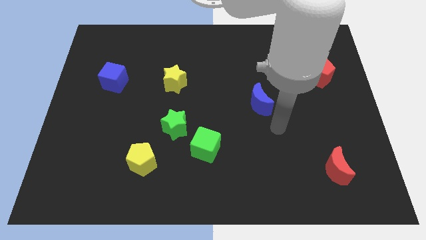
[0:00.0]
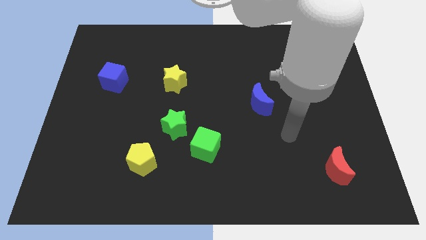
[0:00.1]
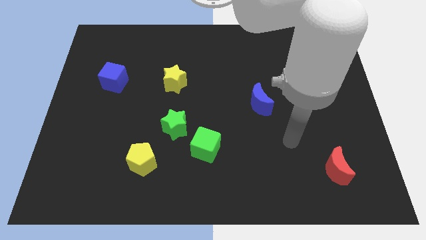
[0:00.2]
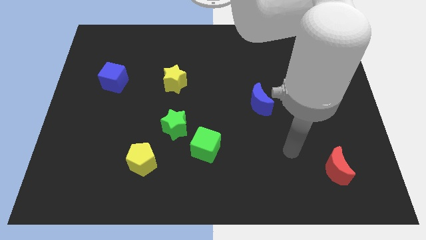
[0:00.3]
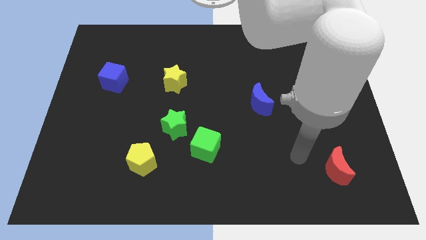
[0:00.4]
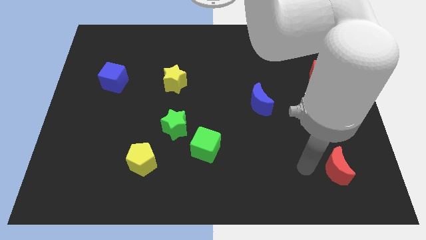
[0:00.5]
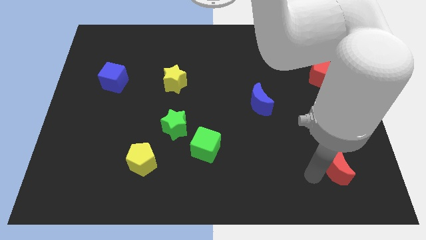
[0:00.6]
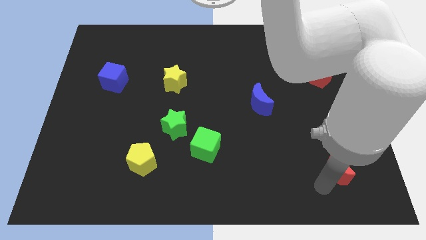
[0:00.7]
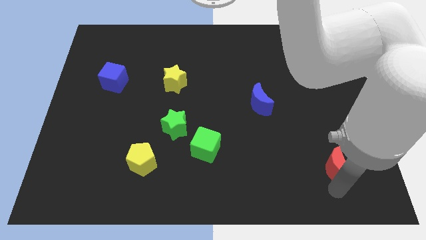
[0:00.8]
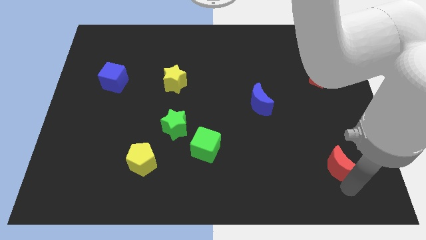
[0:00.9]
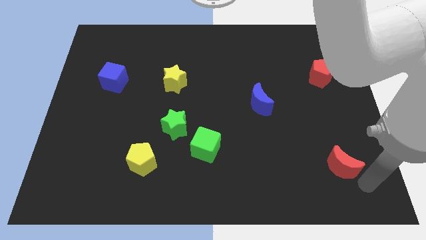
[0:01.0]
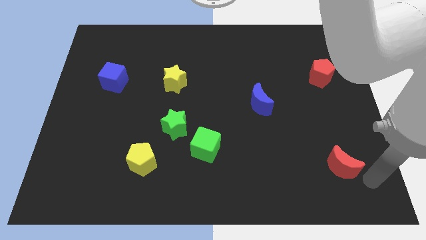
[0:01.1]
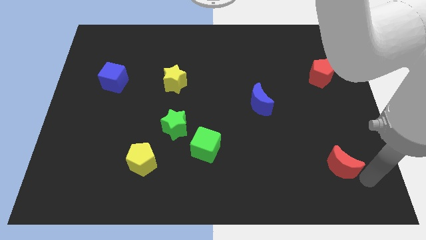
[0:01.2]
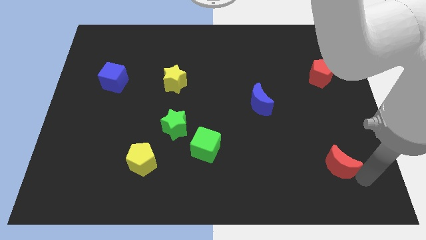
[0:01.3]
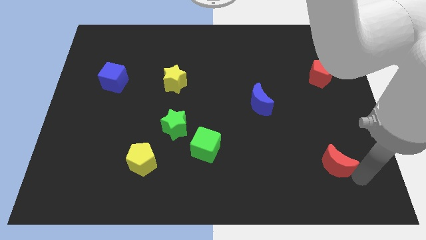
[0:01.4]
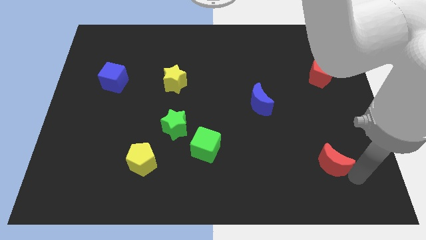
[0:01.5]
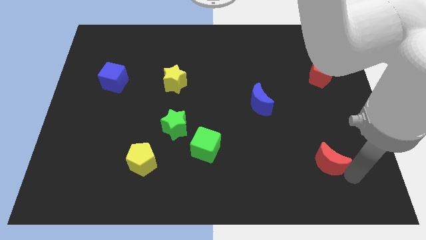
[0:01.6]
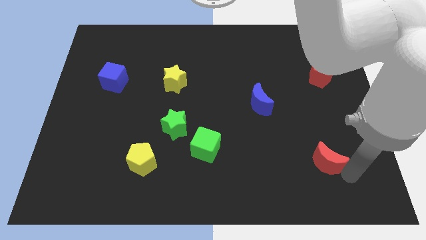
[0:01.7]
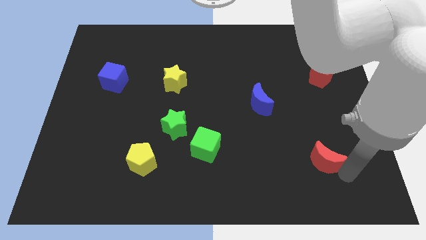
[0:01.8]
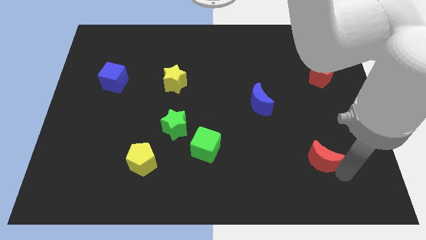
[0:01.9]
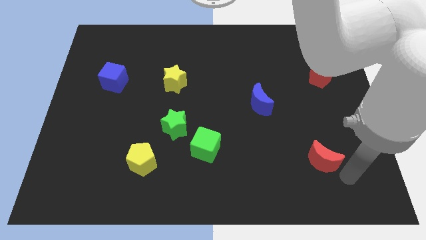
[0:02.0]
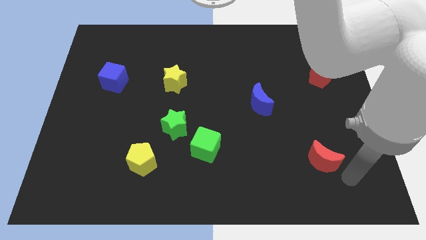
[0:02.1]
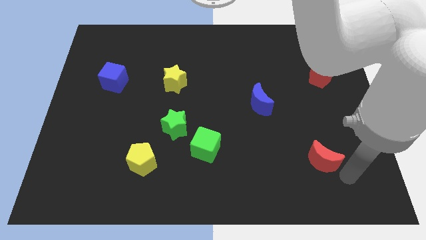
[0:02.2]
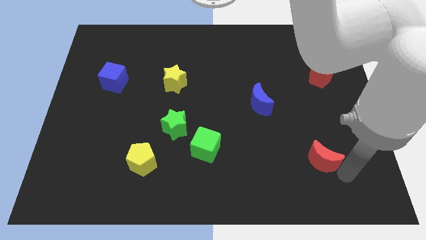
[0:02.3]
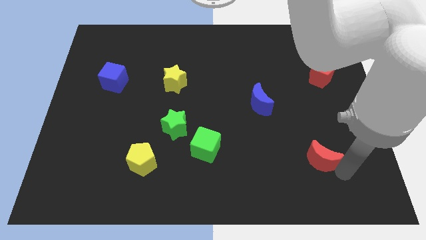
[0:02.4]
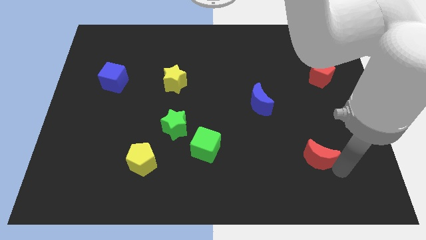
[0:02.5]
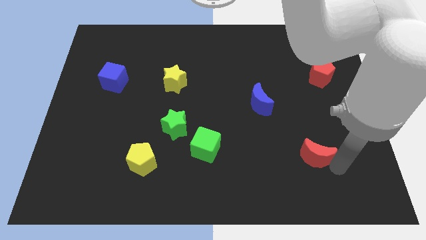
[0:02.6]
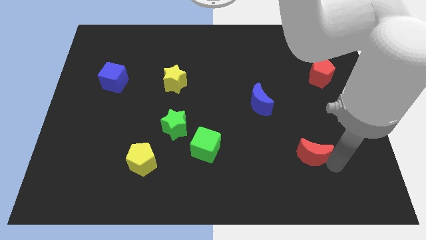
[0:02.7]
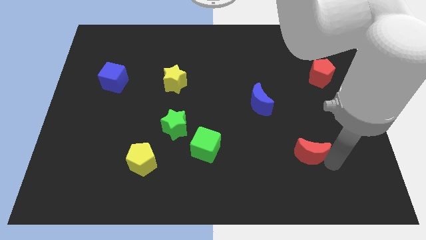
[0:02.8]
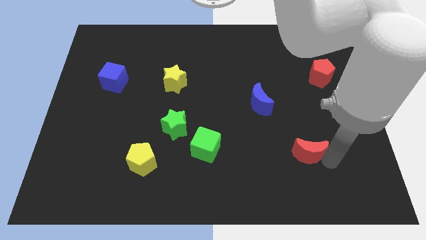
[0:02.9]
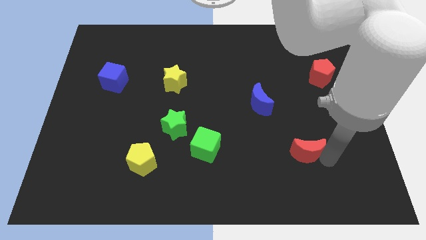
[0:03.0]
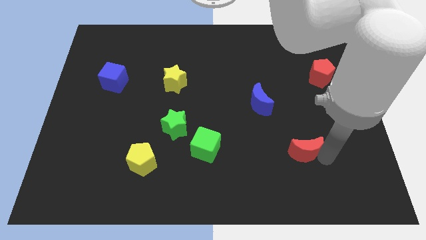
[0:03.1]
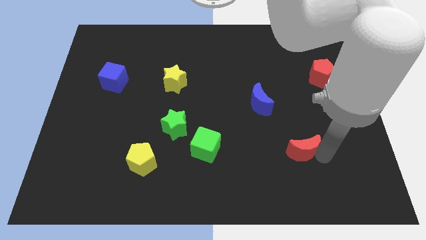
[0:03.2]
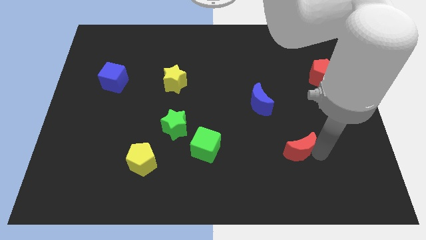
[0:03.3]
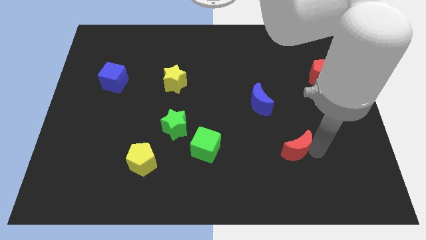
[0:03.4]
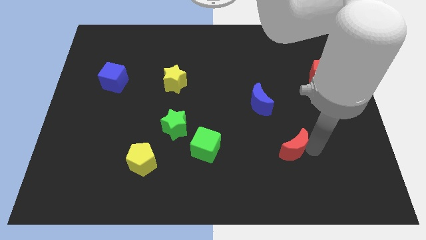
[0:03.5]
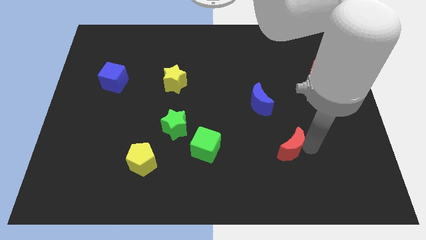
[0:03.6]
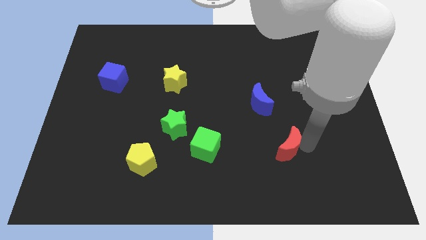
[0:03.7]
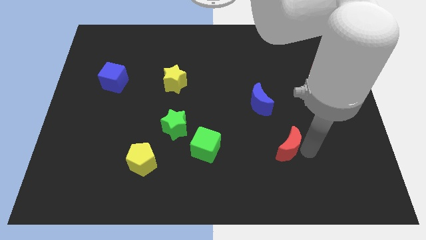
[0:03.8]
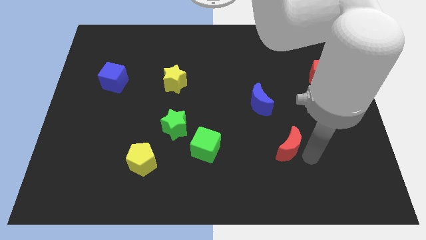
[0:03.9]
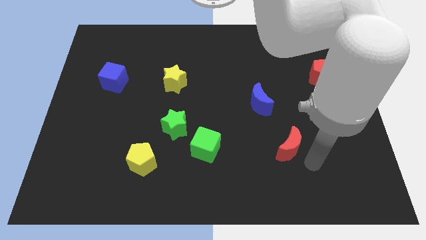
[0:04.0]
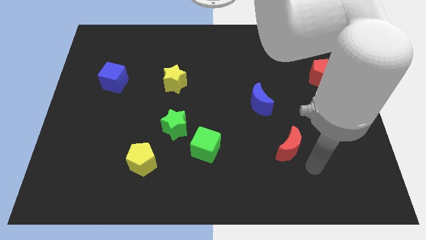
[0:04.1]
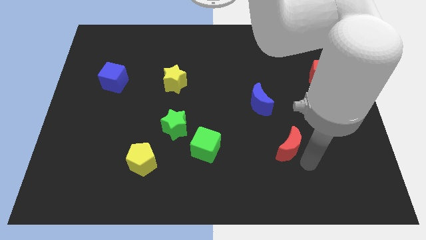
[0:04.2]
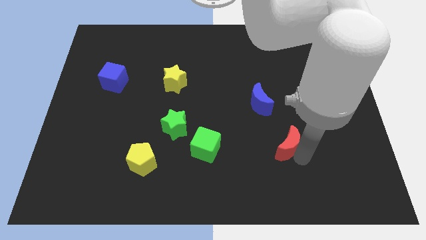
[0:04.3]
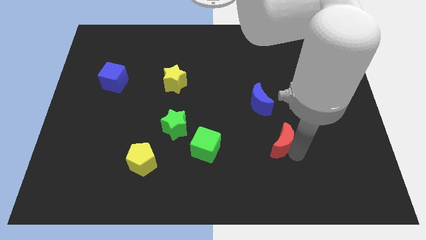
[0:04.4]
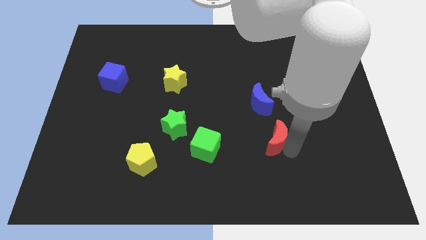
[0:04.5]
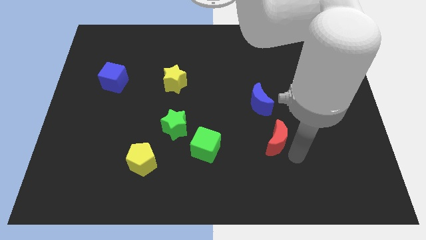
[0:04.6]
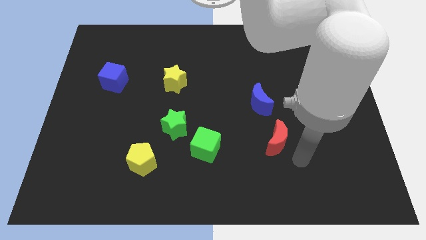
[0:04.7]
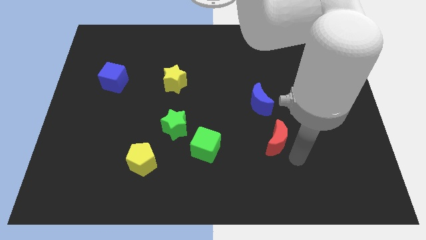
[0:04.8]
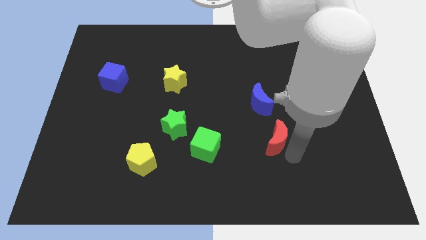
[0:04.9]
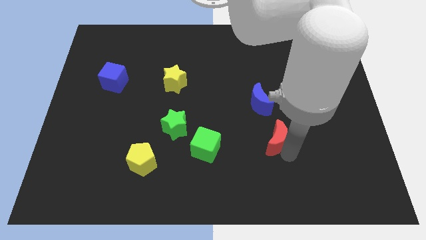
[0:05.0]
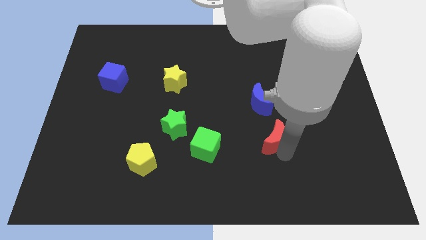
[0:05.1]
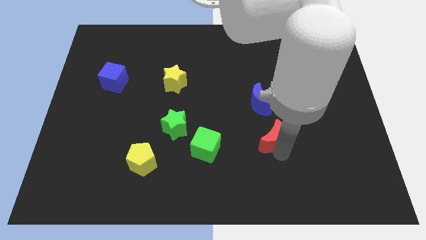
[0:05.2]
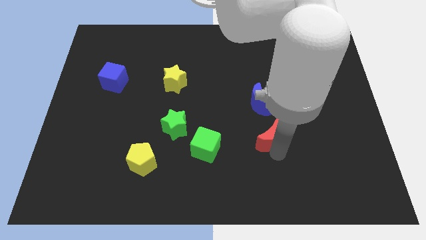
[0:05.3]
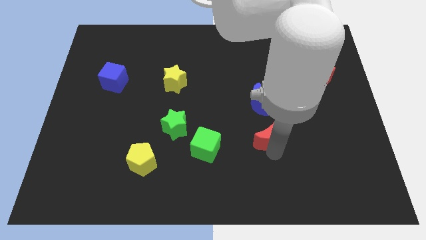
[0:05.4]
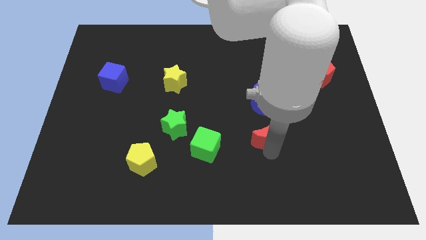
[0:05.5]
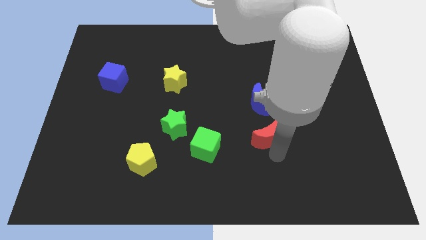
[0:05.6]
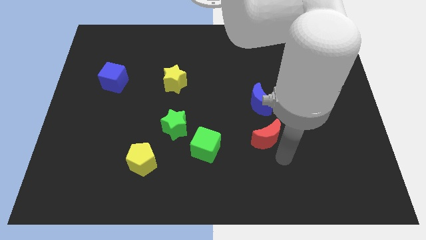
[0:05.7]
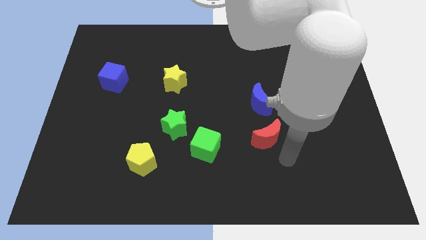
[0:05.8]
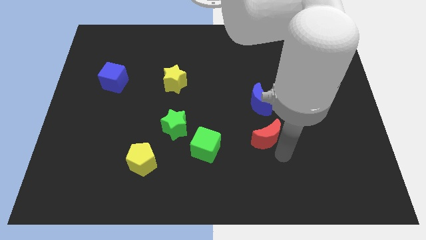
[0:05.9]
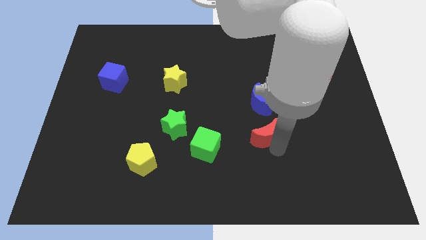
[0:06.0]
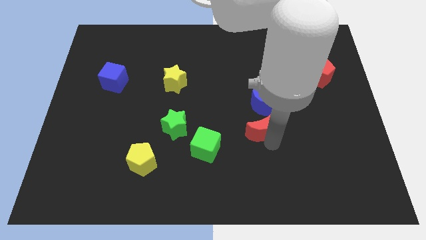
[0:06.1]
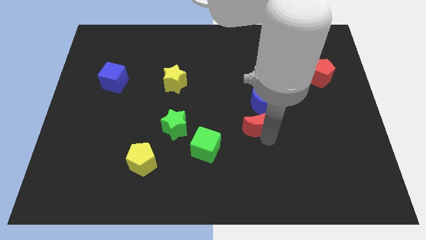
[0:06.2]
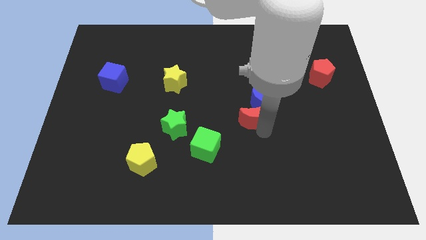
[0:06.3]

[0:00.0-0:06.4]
put the red moon to the center of the board
